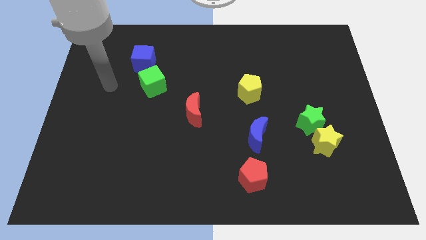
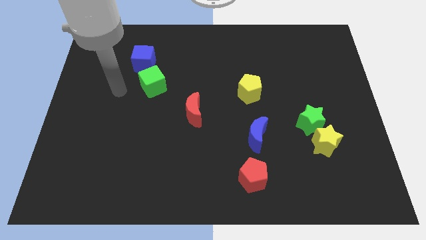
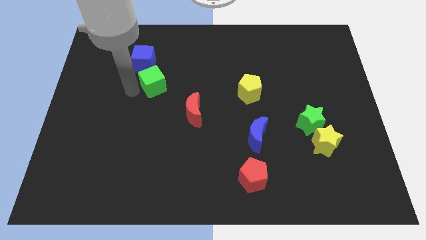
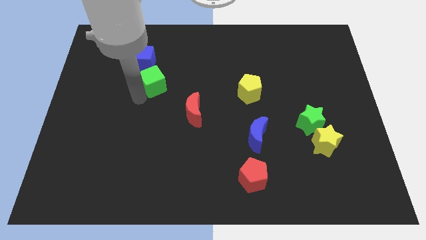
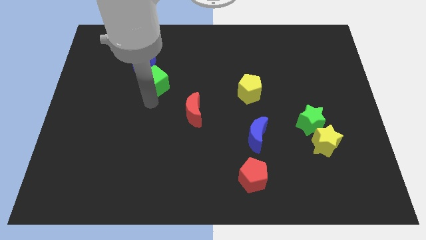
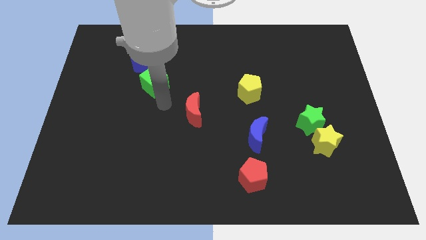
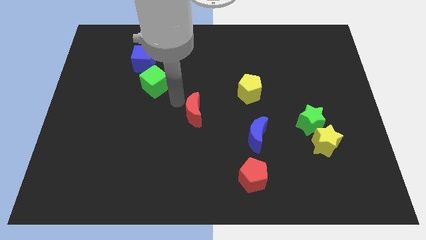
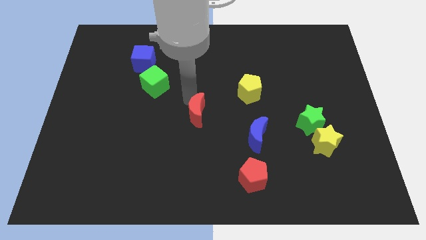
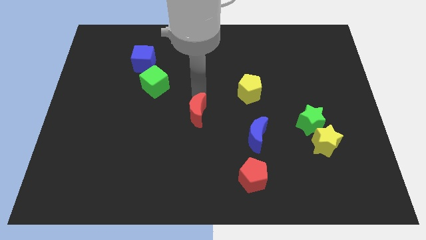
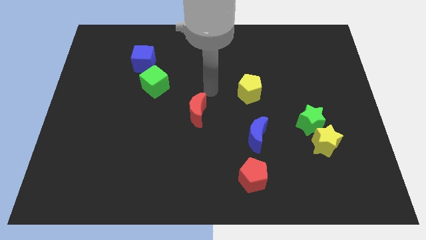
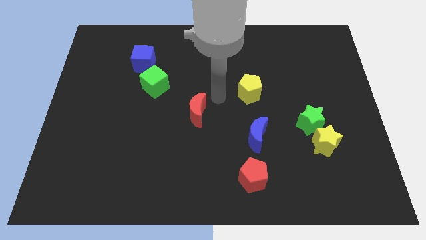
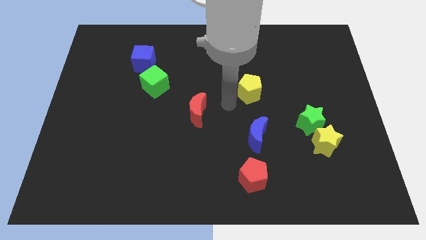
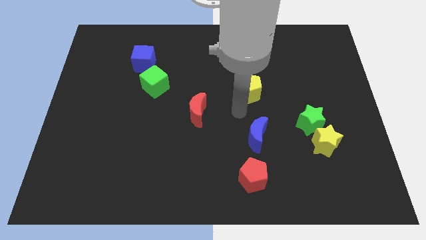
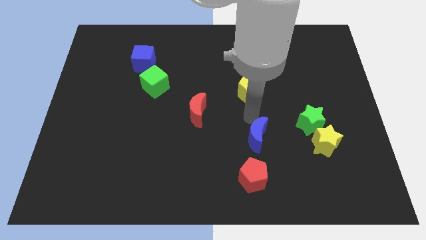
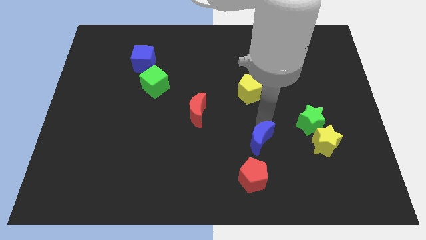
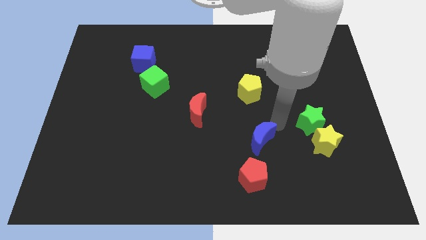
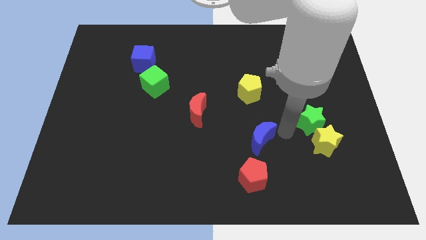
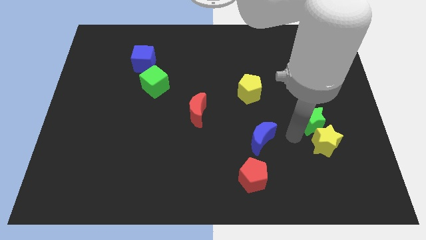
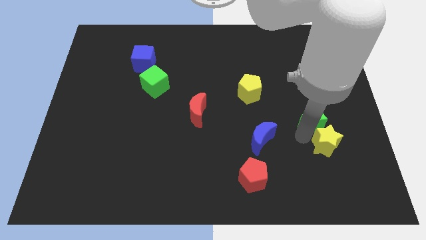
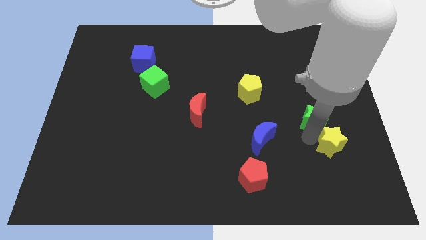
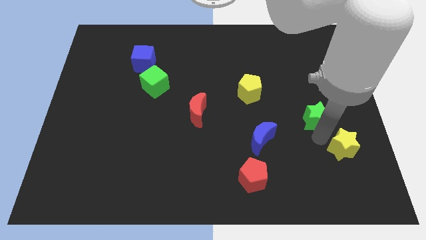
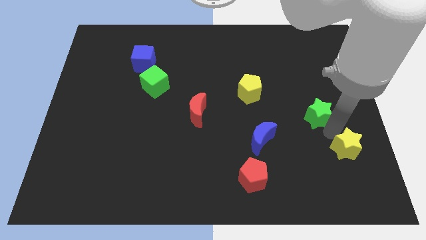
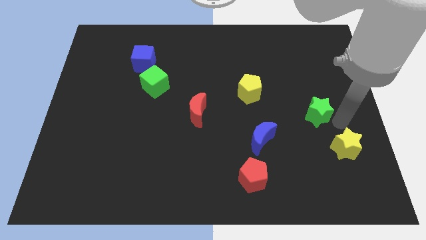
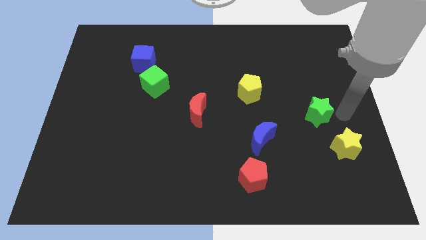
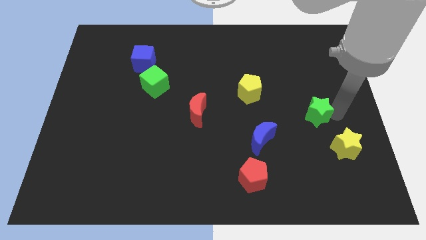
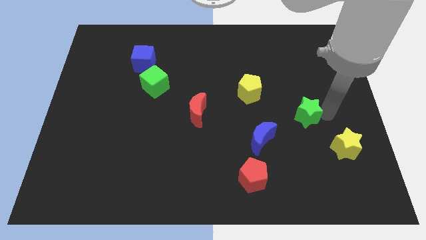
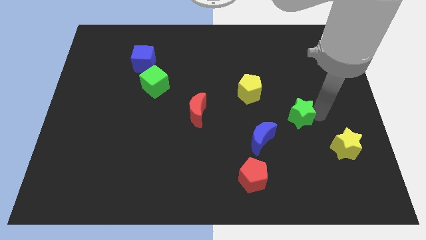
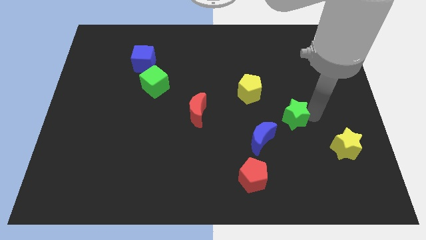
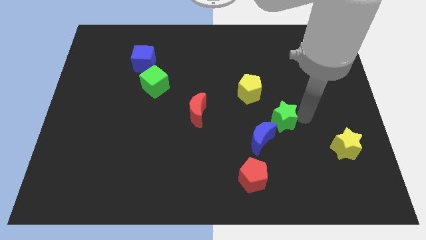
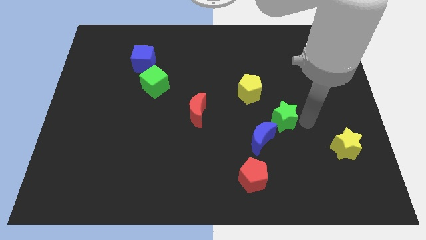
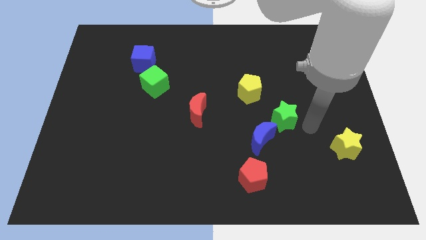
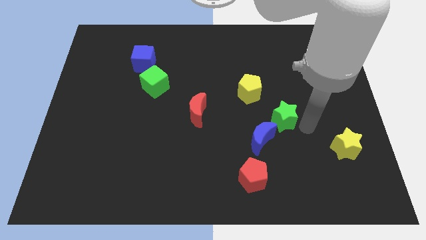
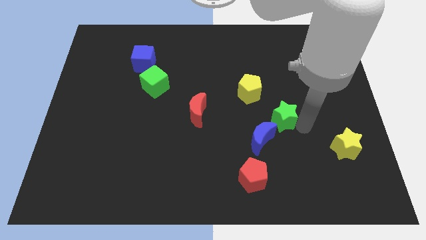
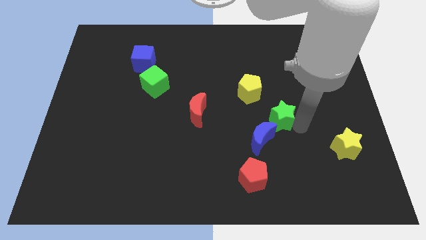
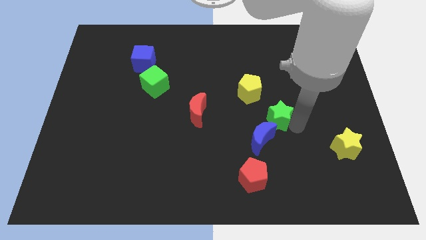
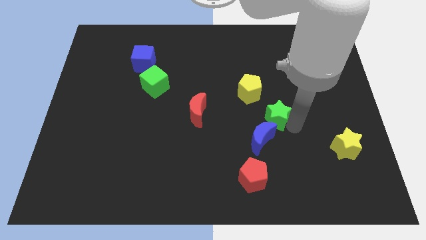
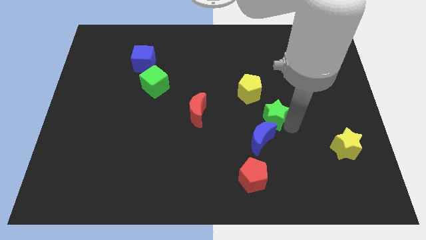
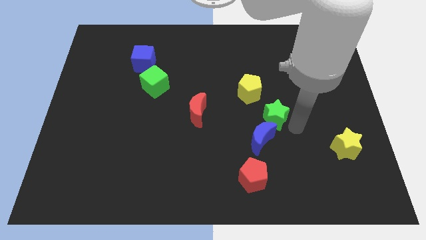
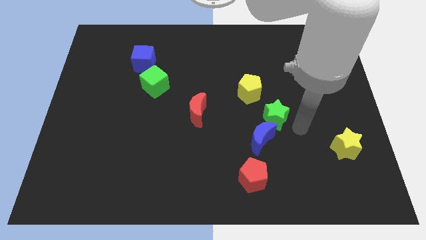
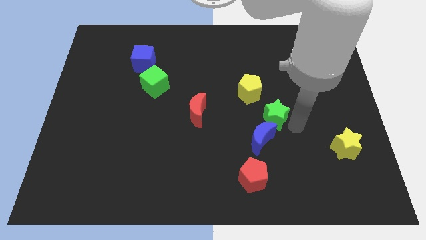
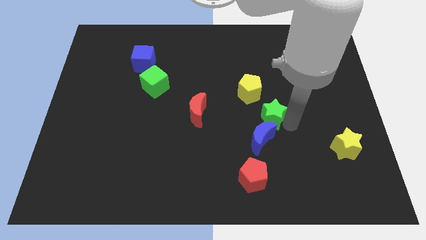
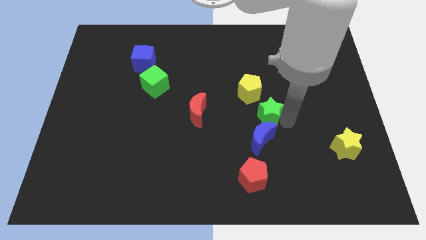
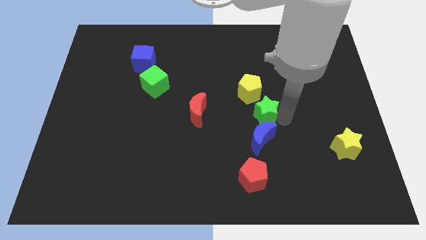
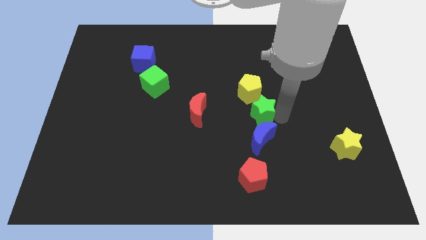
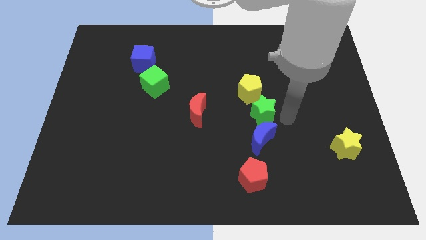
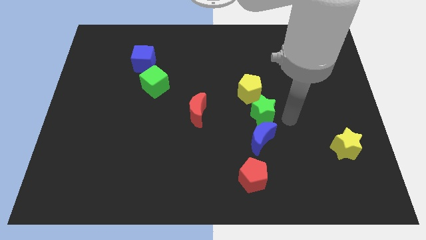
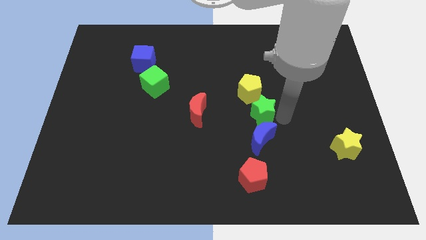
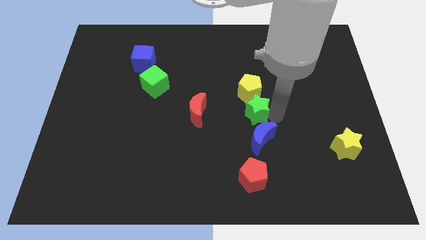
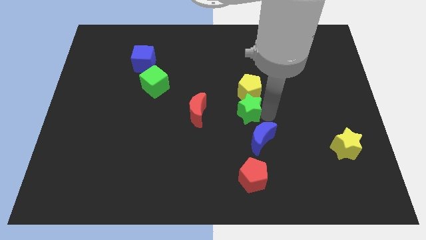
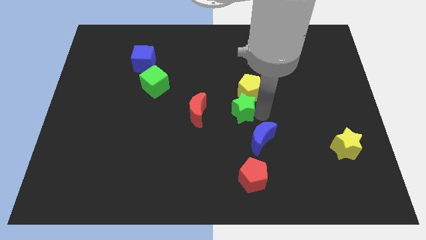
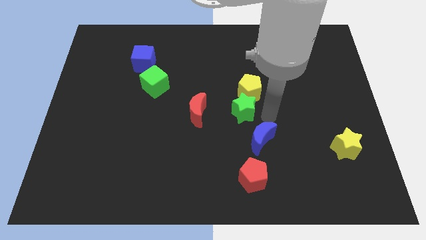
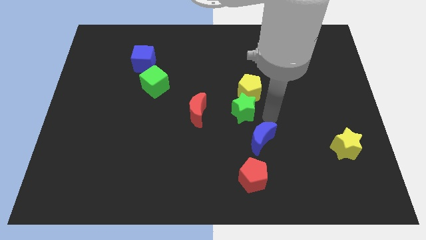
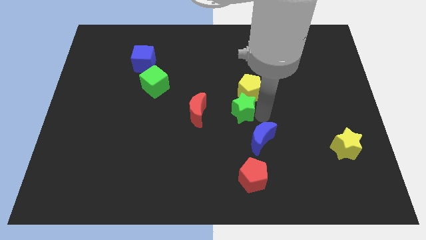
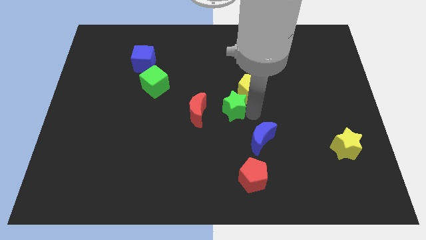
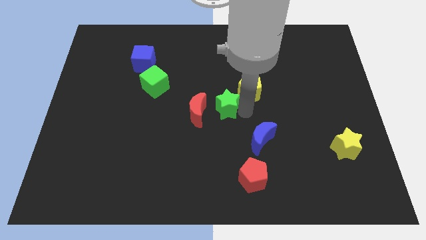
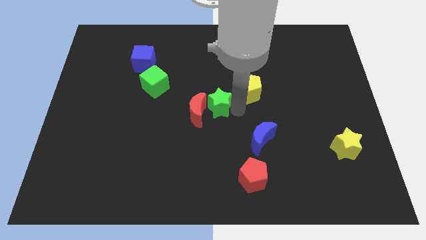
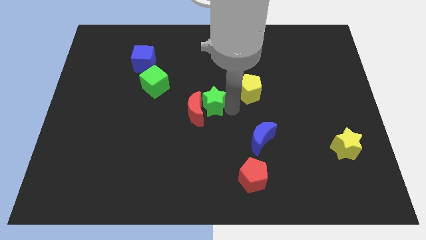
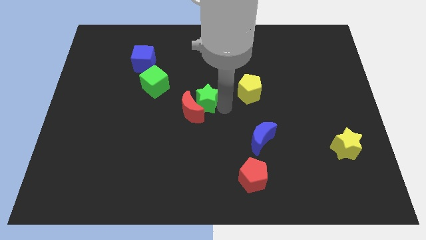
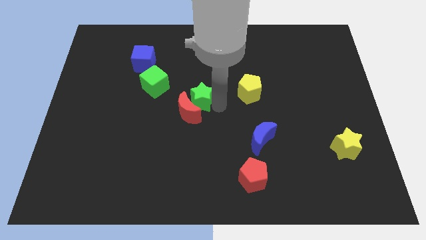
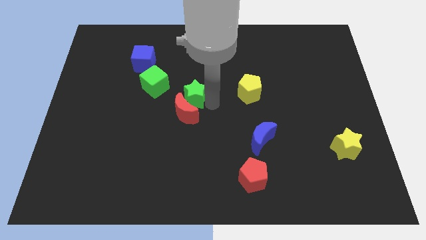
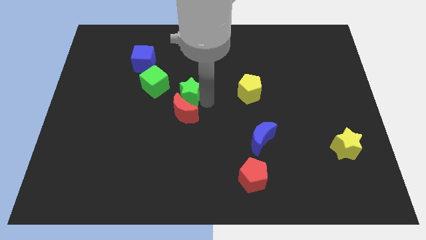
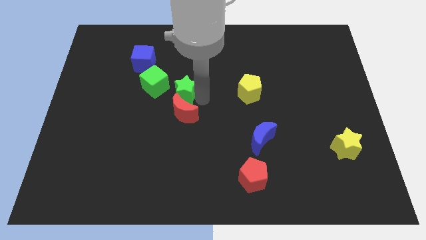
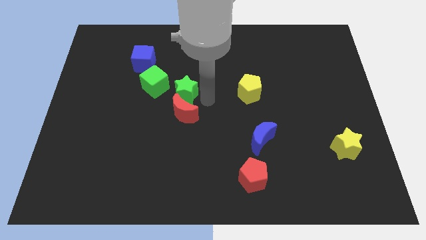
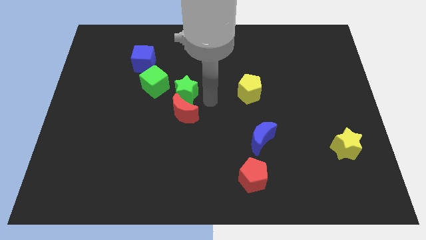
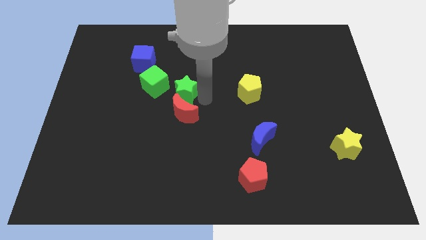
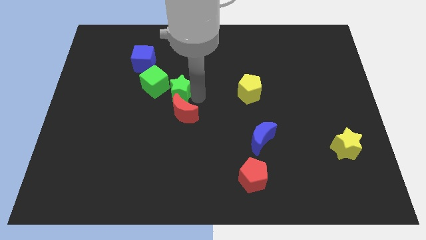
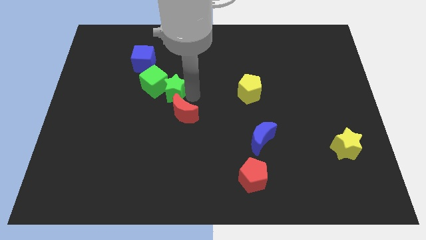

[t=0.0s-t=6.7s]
put the green star towards the green cube

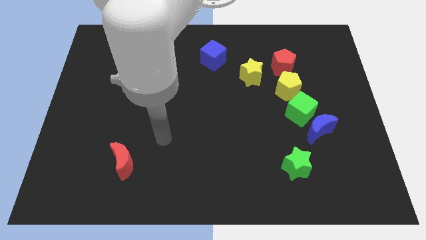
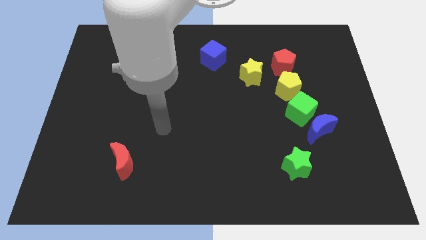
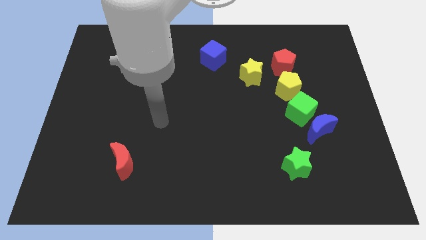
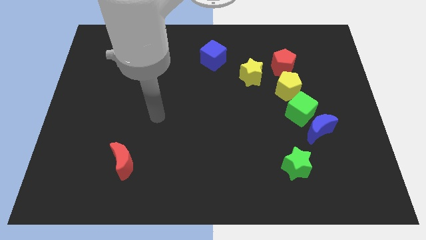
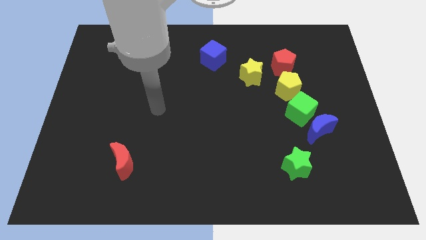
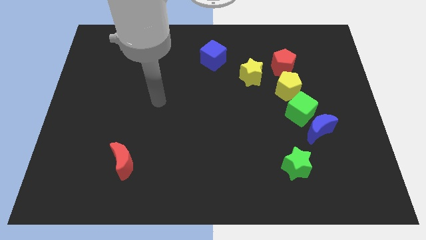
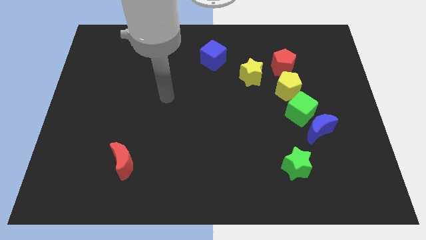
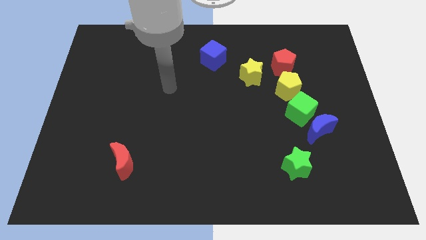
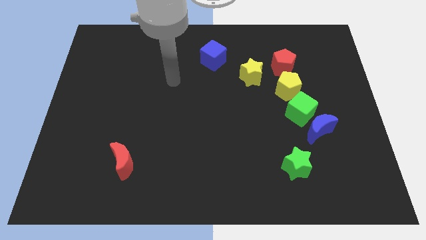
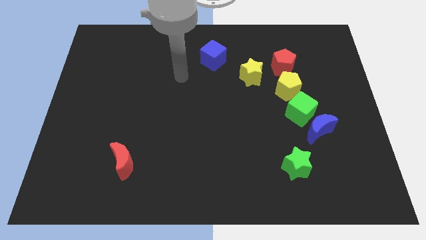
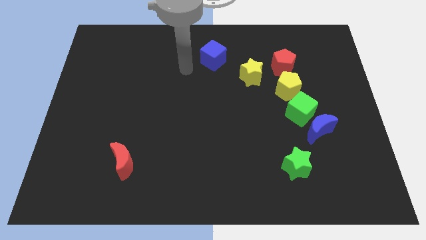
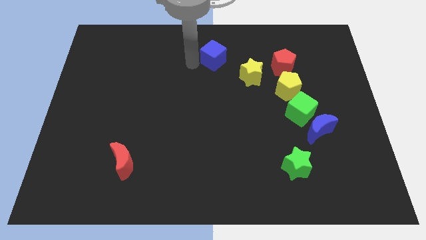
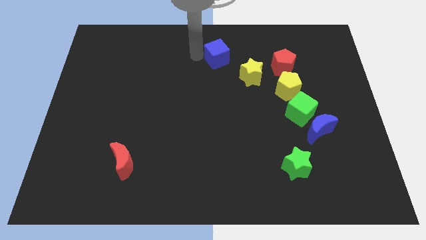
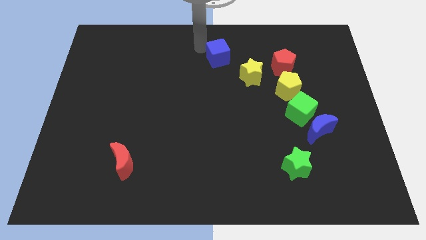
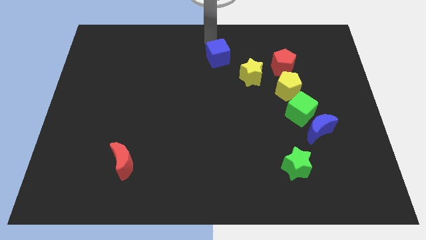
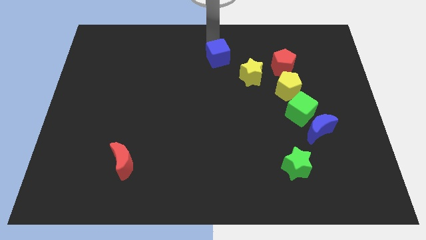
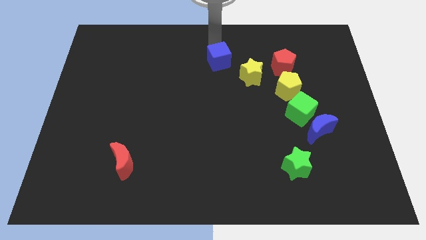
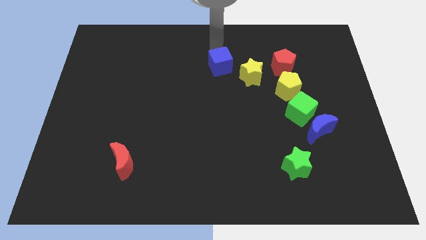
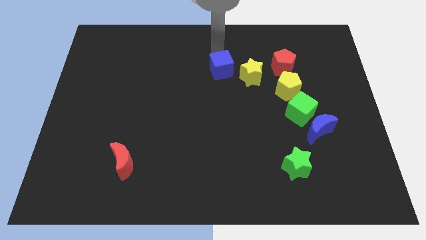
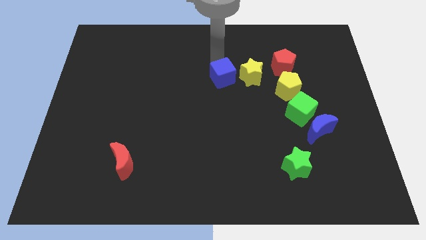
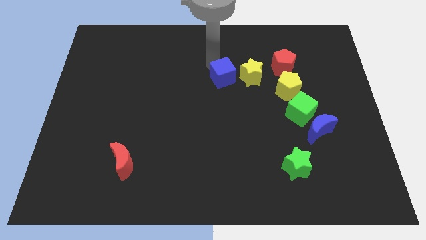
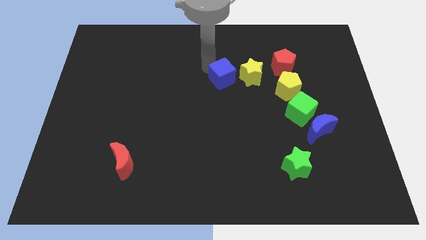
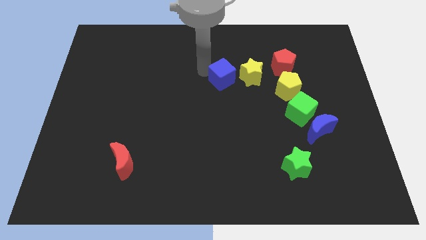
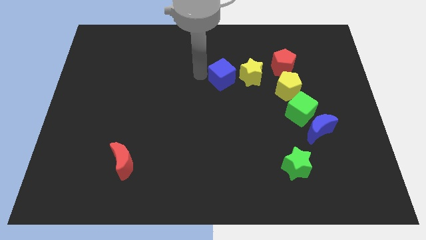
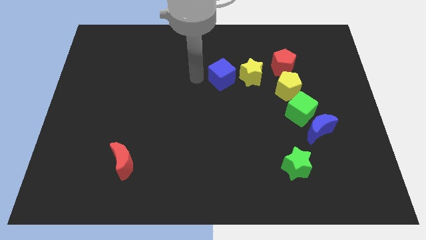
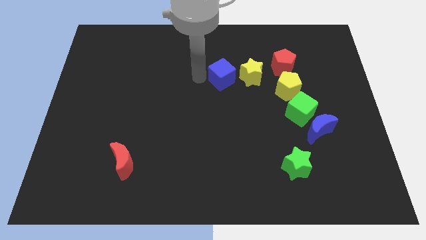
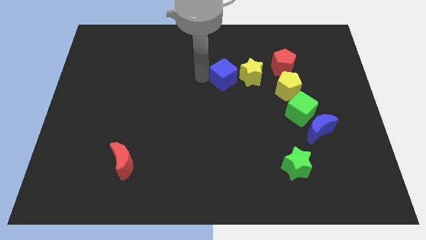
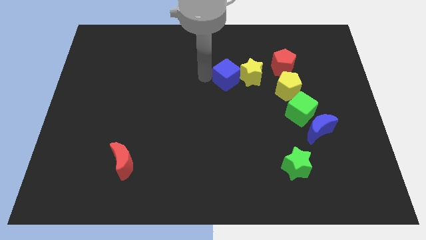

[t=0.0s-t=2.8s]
put the blue cube next to the yellow star
